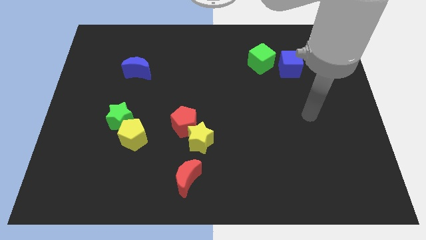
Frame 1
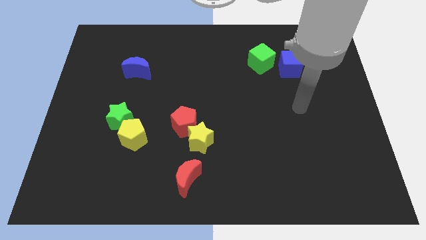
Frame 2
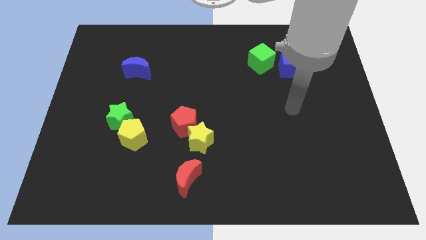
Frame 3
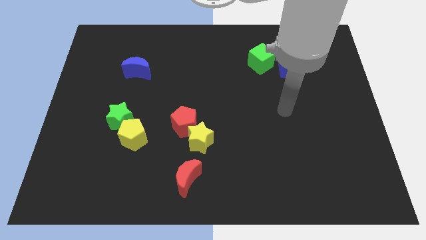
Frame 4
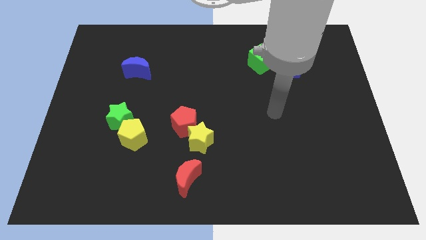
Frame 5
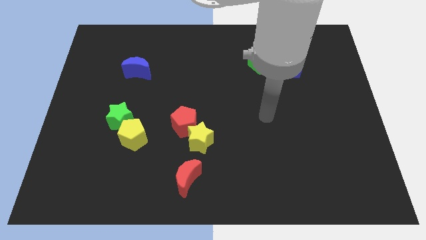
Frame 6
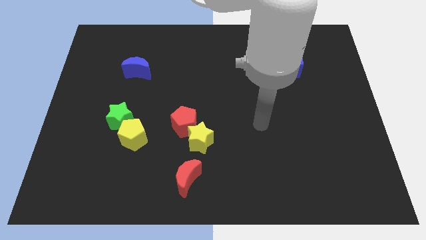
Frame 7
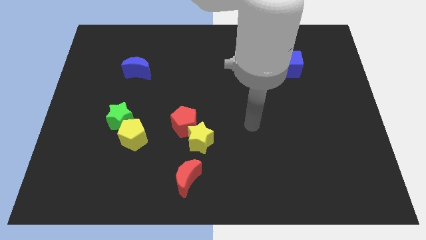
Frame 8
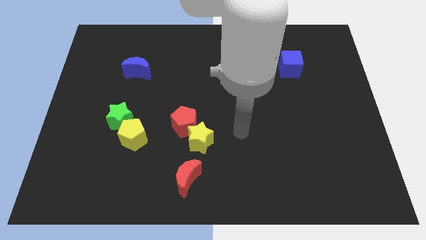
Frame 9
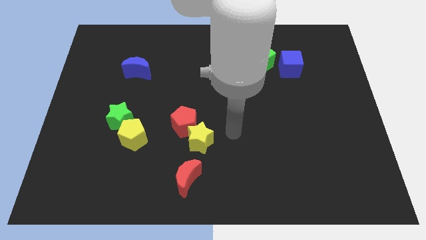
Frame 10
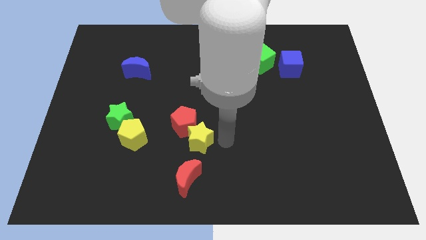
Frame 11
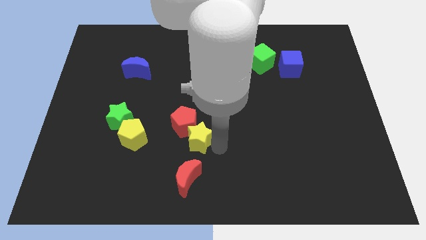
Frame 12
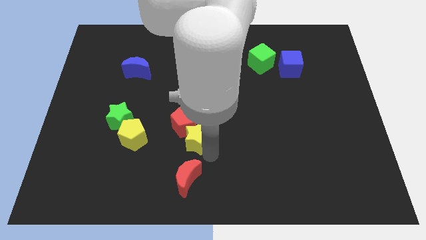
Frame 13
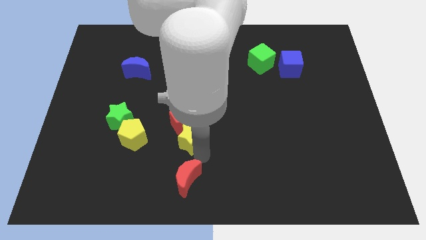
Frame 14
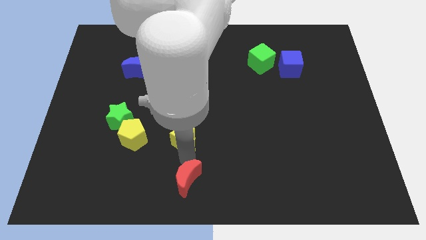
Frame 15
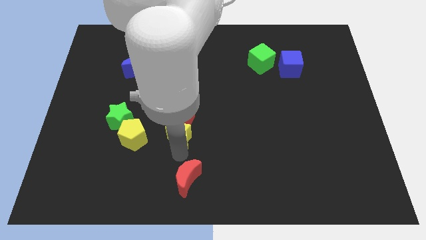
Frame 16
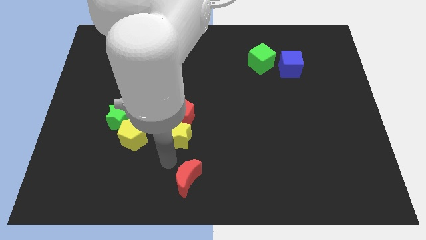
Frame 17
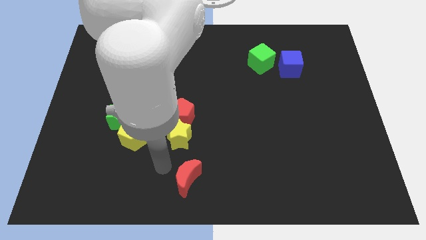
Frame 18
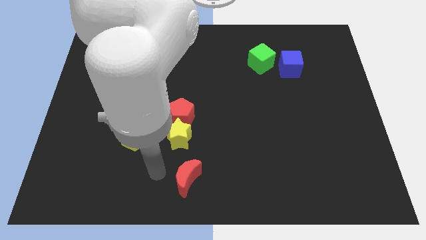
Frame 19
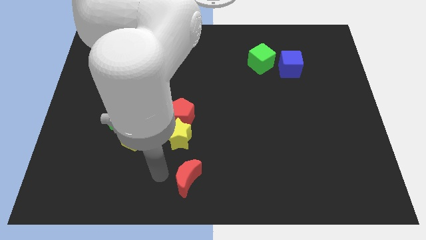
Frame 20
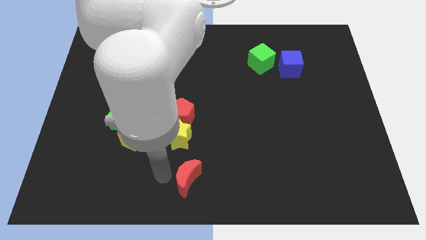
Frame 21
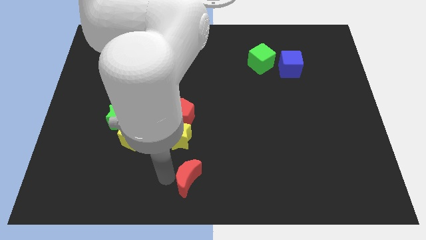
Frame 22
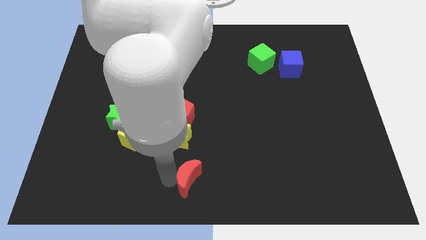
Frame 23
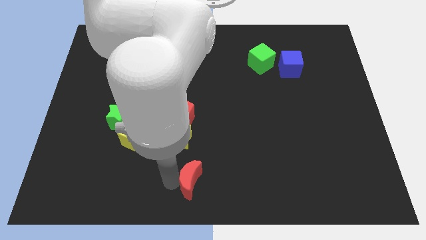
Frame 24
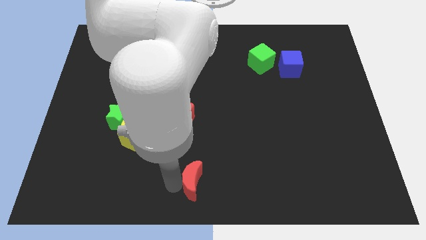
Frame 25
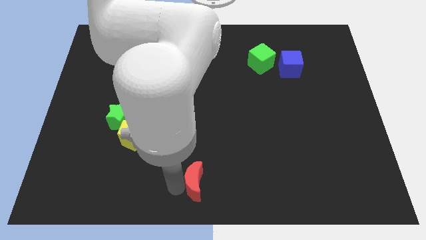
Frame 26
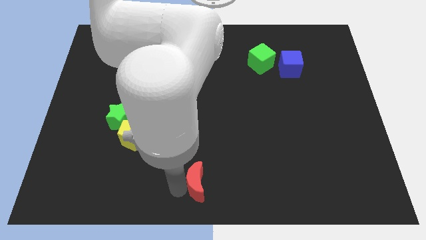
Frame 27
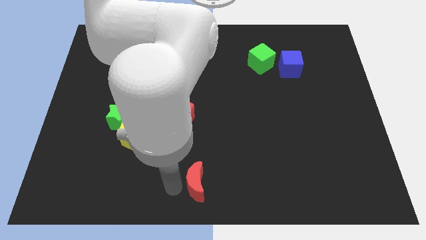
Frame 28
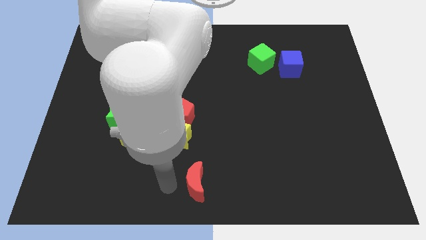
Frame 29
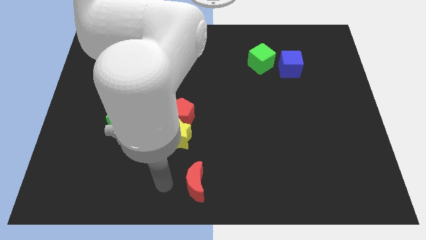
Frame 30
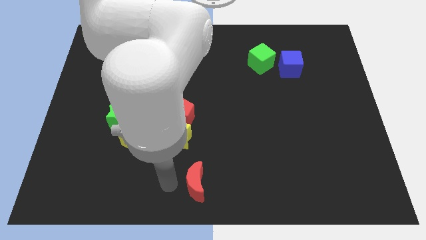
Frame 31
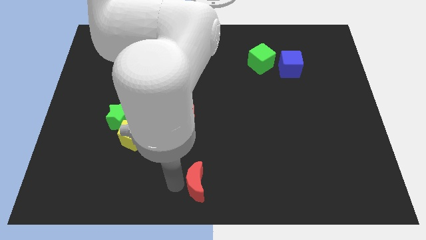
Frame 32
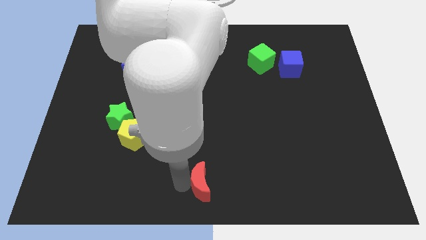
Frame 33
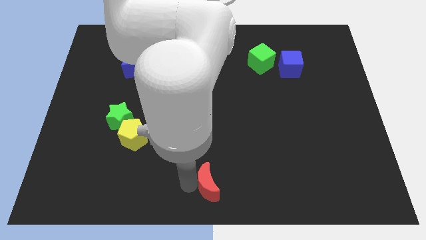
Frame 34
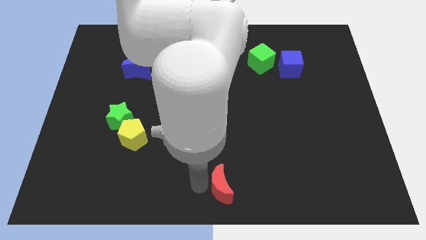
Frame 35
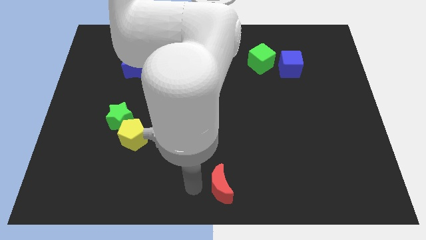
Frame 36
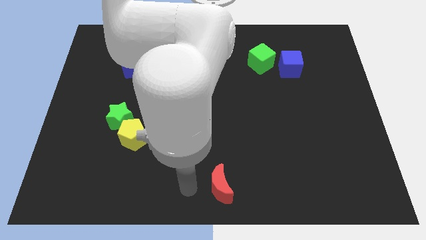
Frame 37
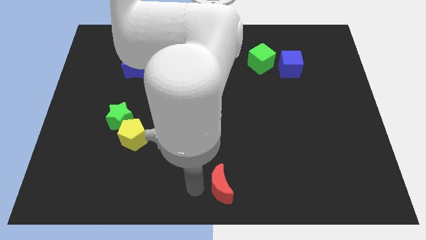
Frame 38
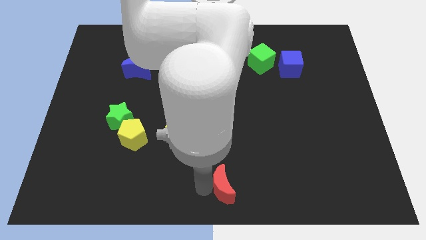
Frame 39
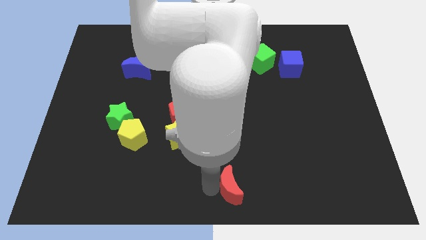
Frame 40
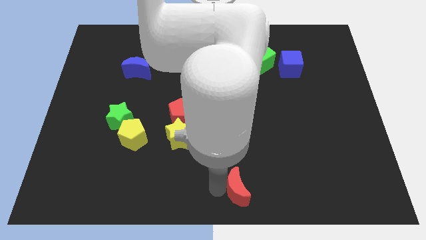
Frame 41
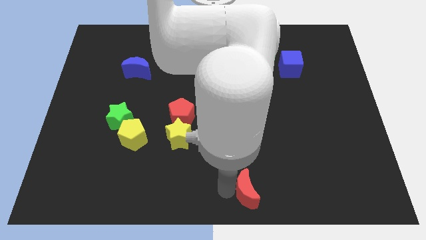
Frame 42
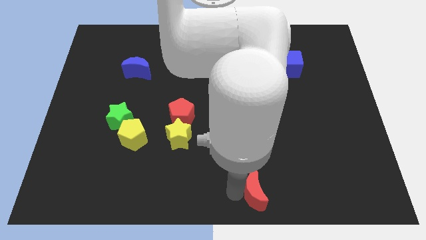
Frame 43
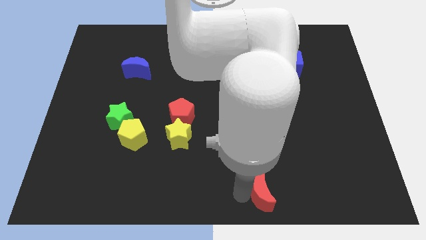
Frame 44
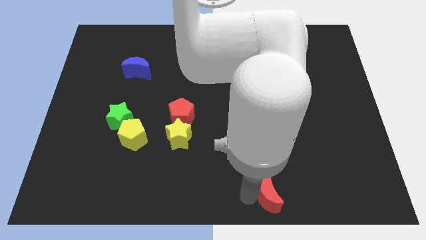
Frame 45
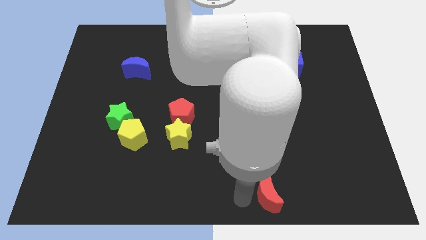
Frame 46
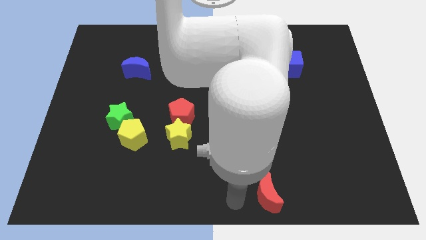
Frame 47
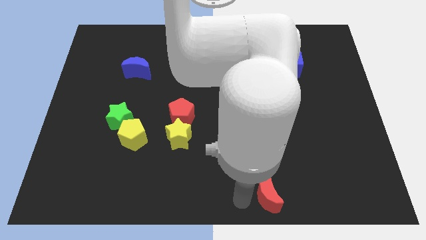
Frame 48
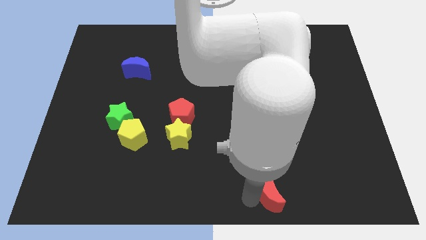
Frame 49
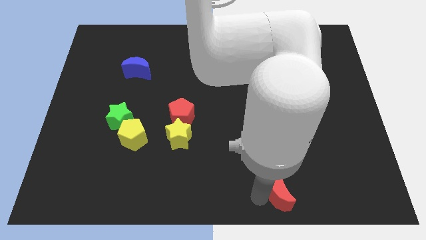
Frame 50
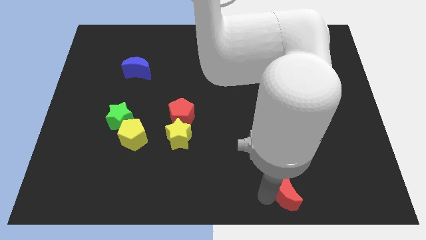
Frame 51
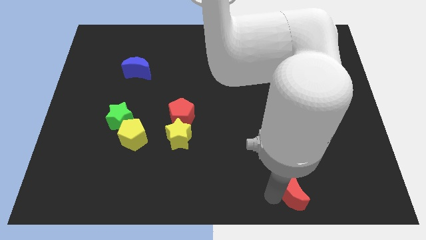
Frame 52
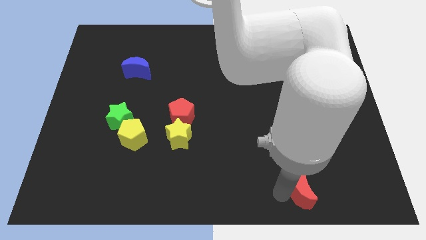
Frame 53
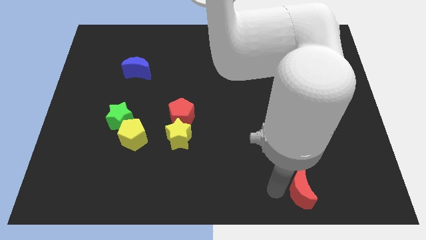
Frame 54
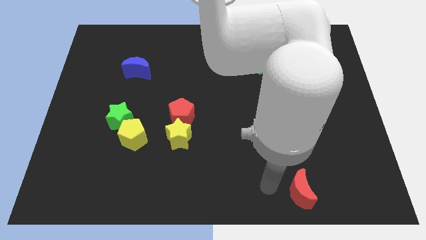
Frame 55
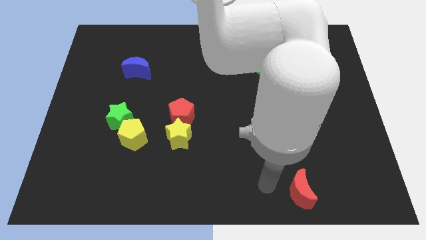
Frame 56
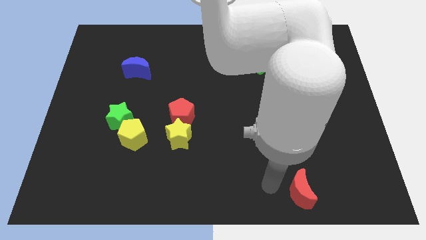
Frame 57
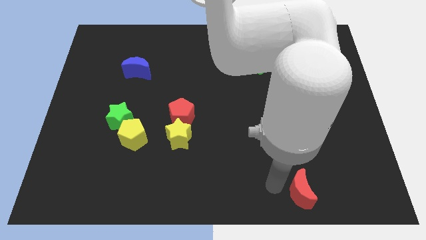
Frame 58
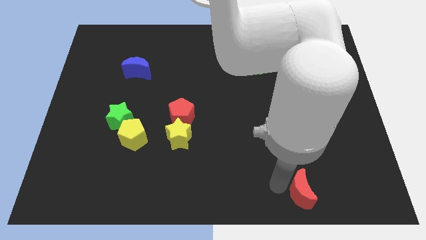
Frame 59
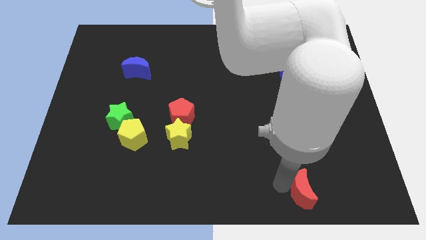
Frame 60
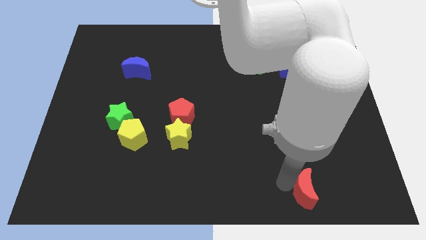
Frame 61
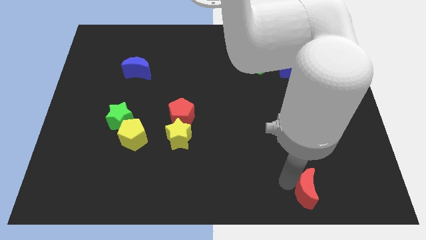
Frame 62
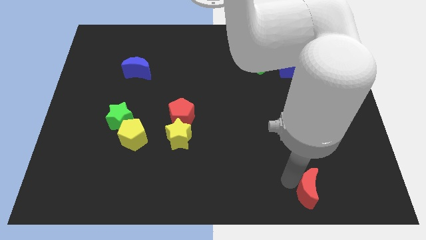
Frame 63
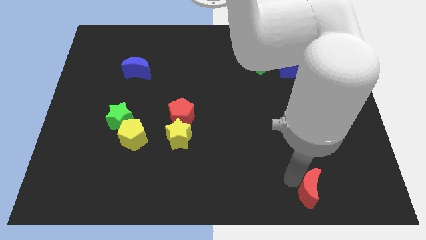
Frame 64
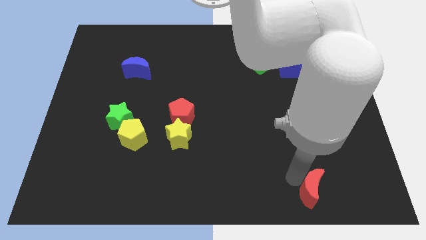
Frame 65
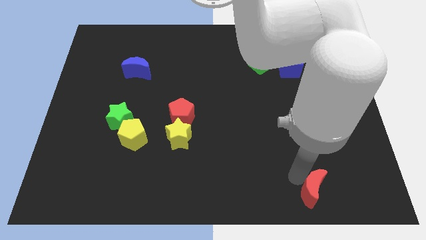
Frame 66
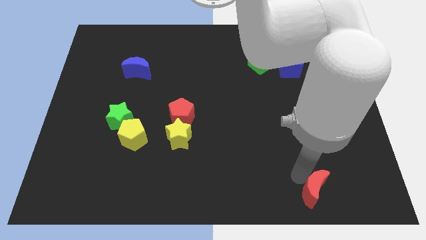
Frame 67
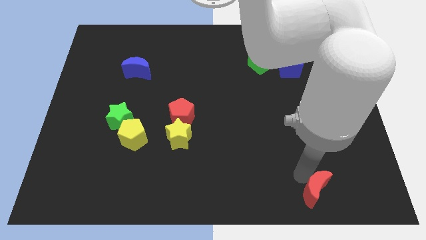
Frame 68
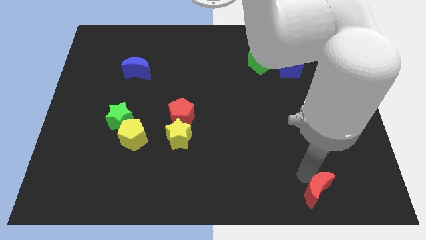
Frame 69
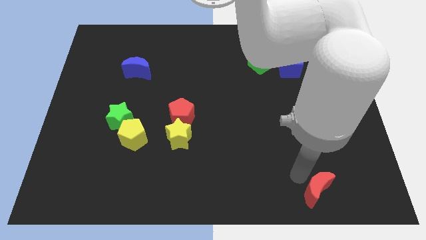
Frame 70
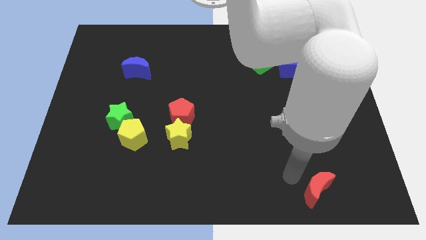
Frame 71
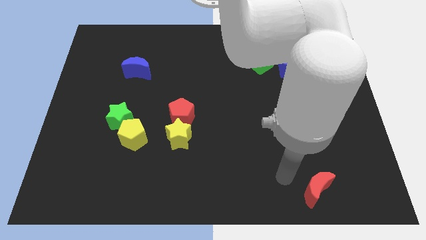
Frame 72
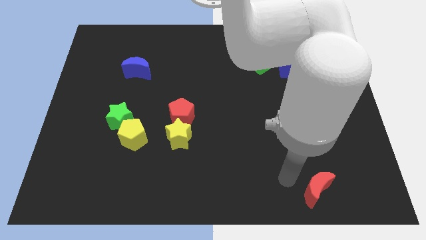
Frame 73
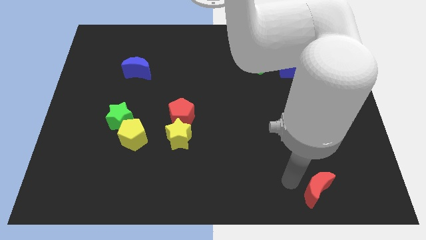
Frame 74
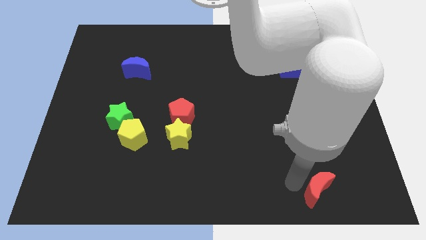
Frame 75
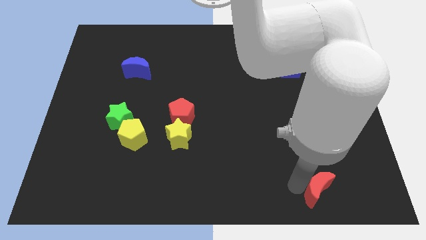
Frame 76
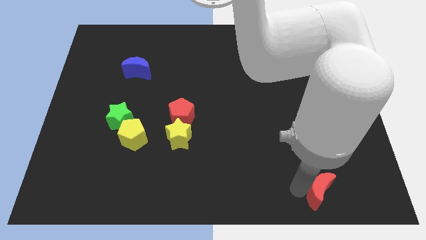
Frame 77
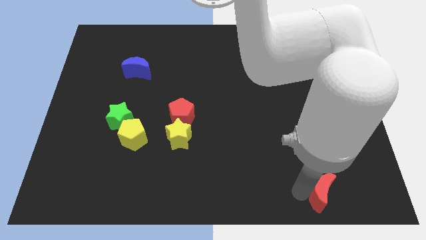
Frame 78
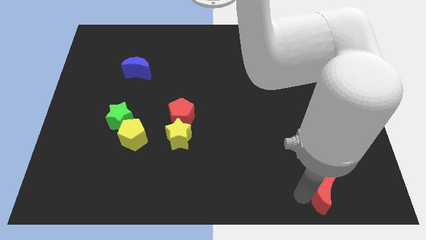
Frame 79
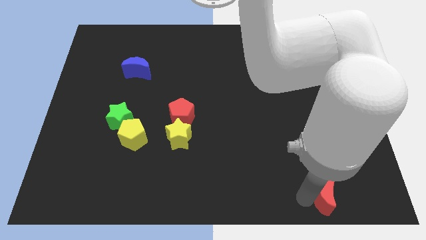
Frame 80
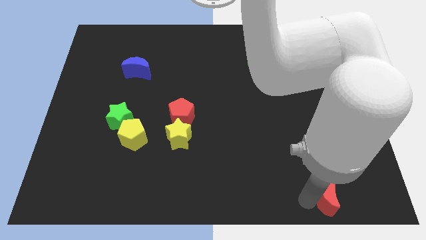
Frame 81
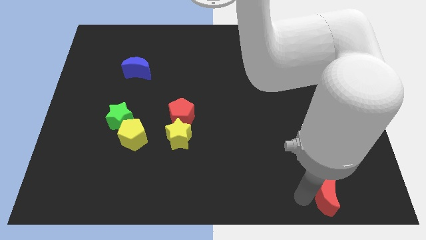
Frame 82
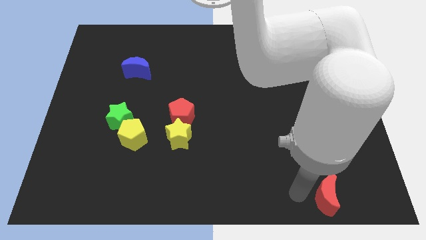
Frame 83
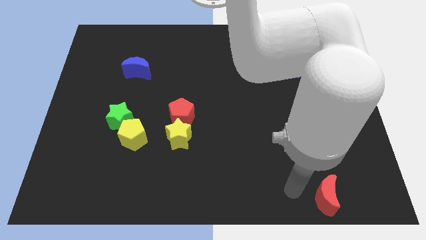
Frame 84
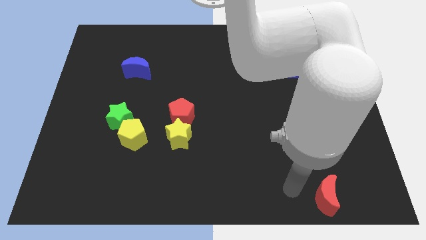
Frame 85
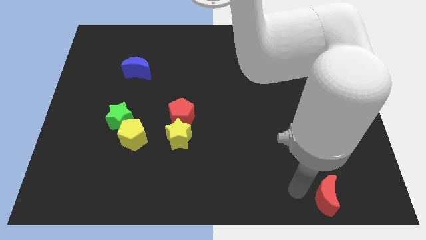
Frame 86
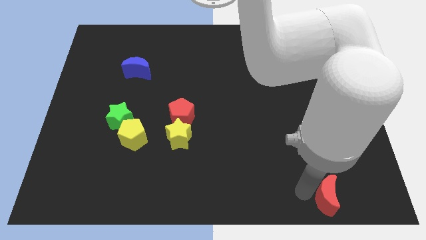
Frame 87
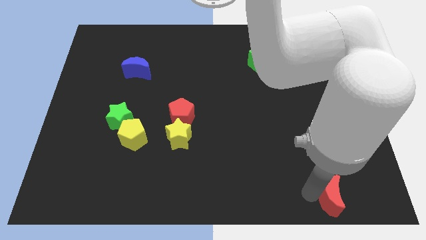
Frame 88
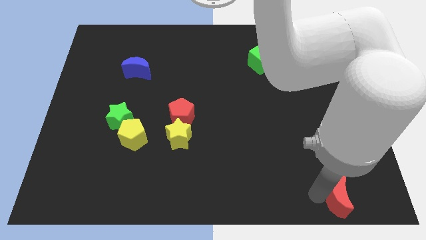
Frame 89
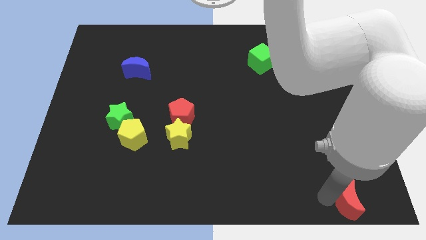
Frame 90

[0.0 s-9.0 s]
move the red moon to the lower right corner
